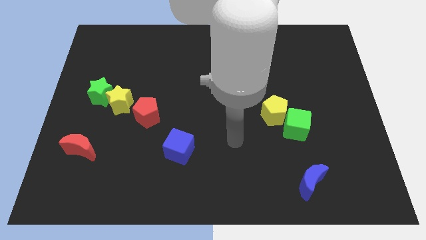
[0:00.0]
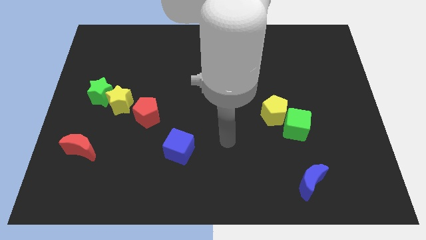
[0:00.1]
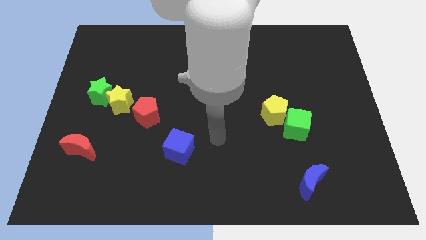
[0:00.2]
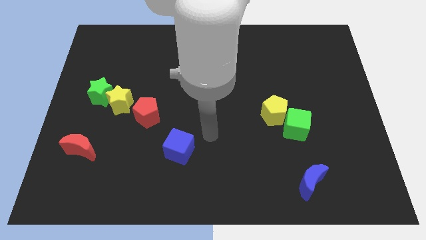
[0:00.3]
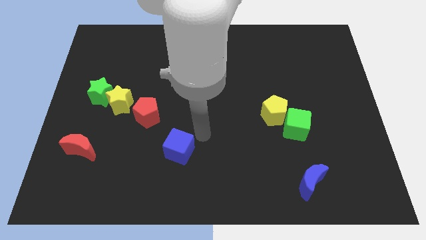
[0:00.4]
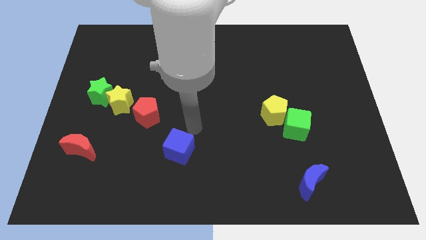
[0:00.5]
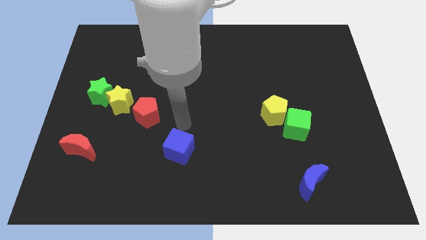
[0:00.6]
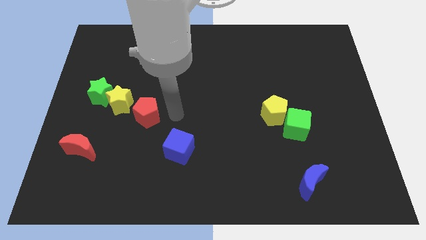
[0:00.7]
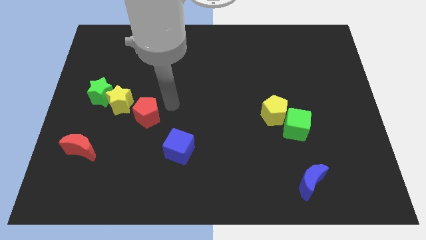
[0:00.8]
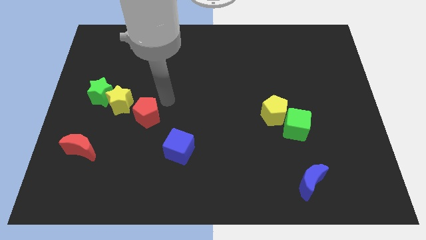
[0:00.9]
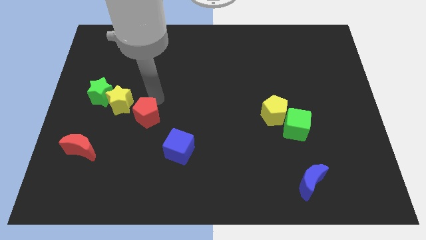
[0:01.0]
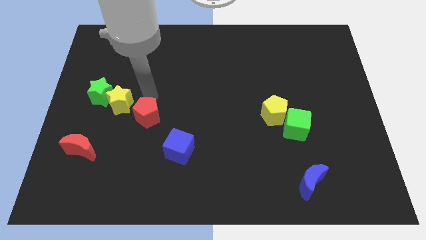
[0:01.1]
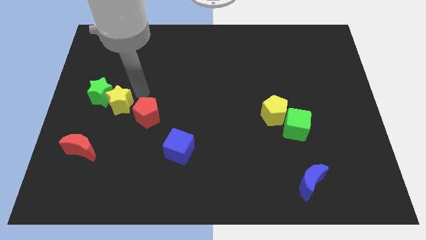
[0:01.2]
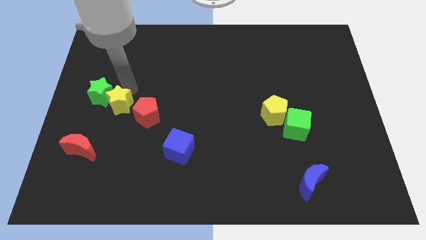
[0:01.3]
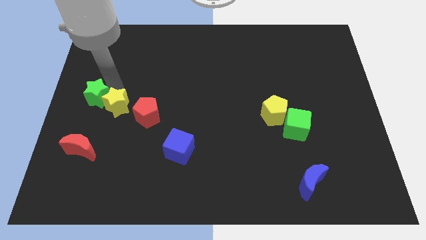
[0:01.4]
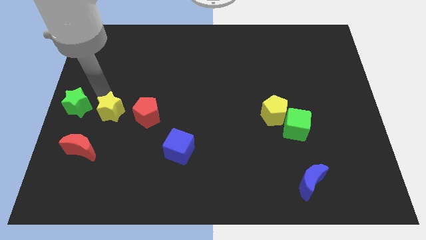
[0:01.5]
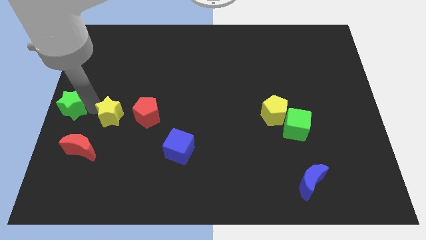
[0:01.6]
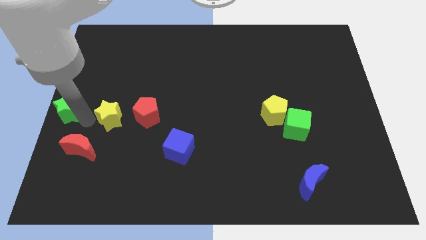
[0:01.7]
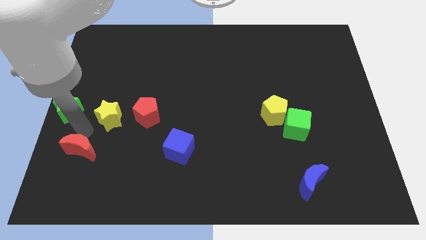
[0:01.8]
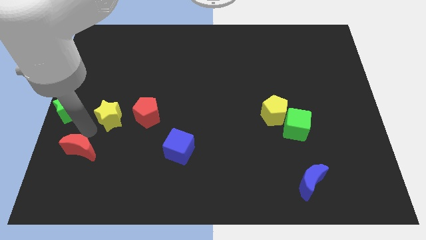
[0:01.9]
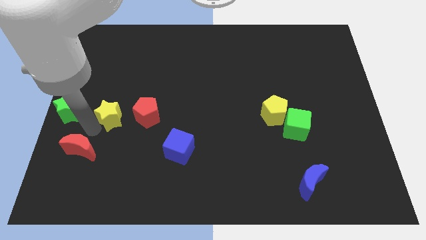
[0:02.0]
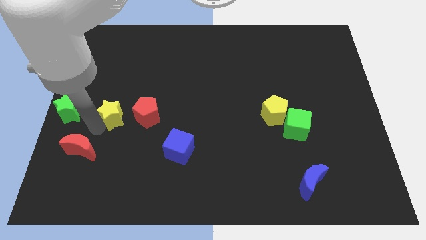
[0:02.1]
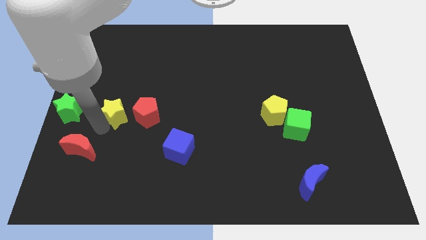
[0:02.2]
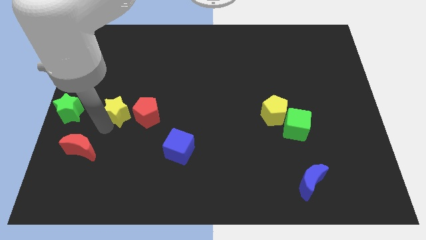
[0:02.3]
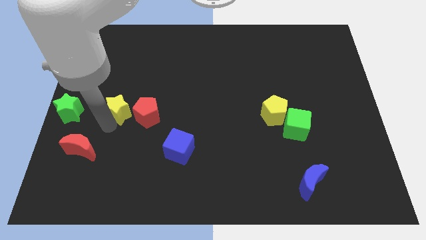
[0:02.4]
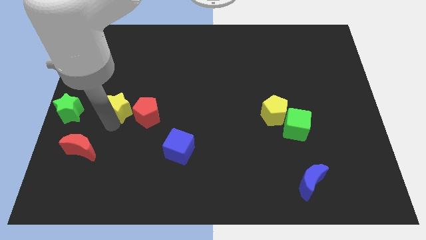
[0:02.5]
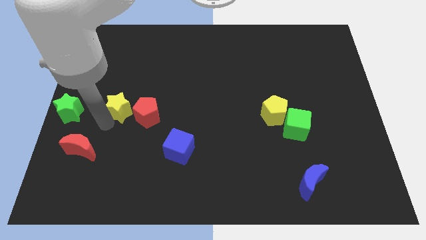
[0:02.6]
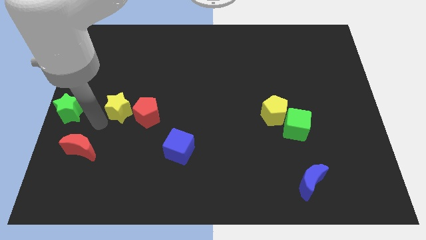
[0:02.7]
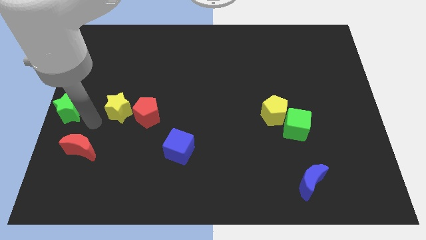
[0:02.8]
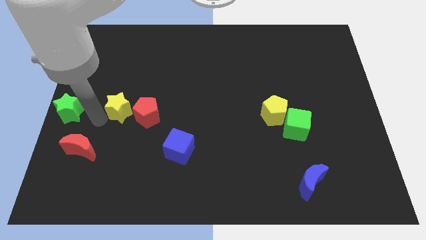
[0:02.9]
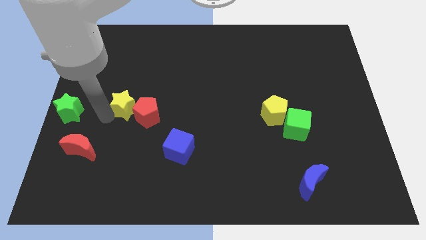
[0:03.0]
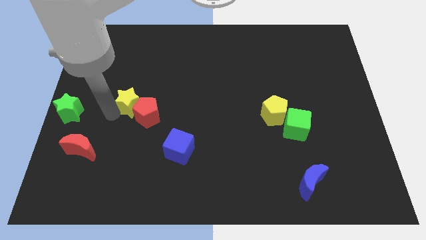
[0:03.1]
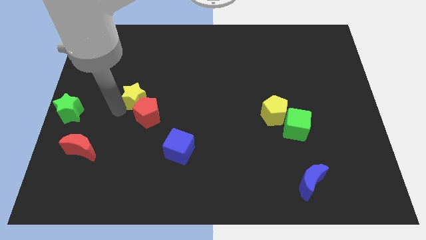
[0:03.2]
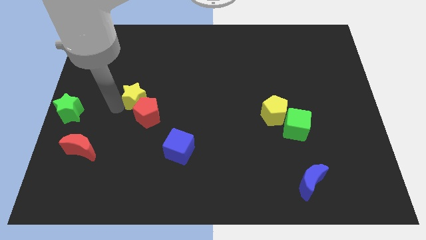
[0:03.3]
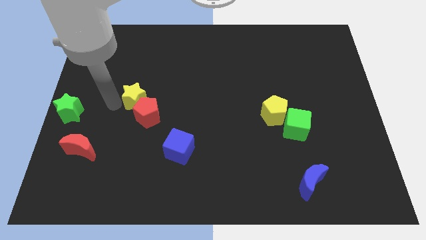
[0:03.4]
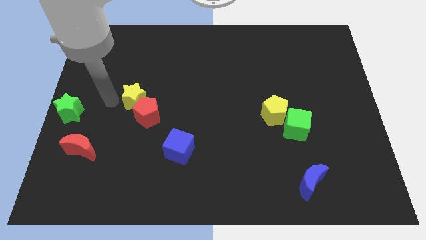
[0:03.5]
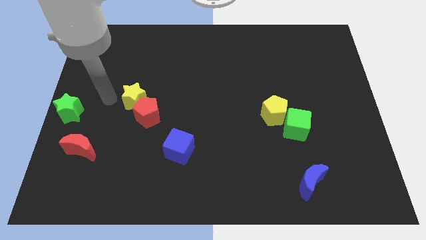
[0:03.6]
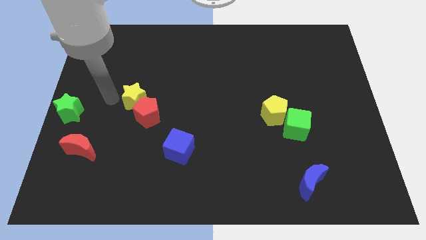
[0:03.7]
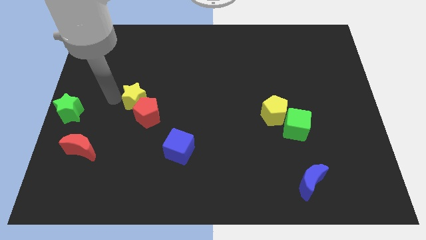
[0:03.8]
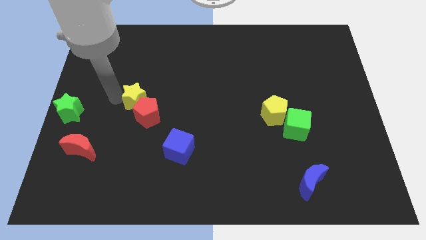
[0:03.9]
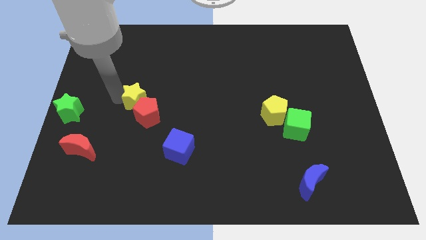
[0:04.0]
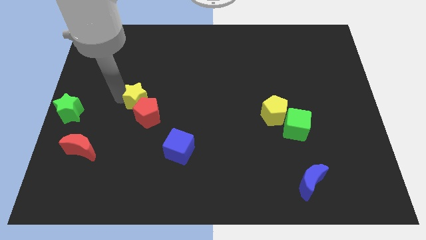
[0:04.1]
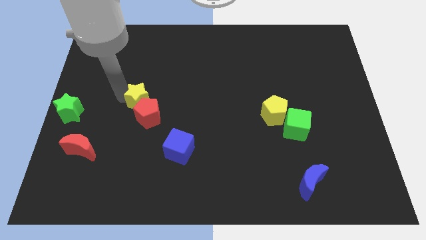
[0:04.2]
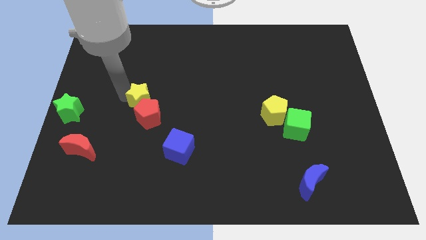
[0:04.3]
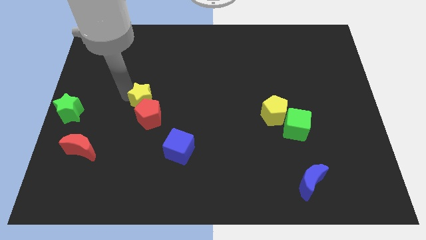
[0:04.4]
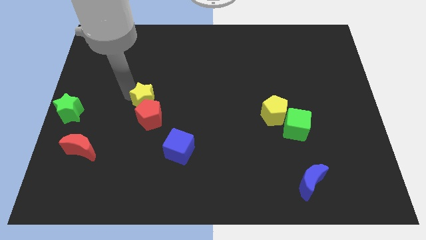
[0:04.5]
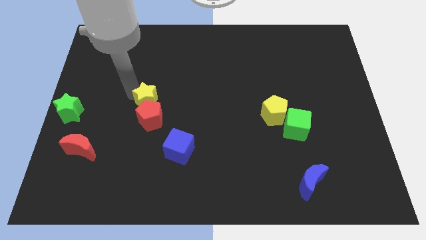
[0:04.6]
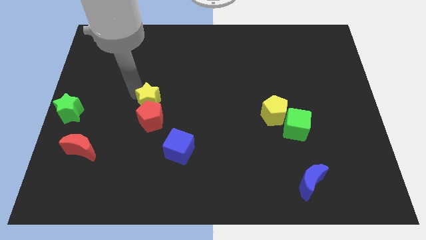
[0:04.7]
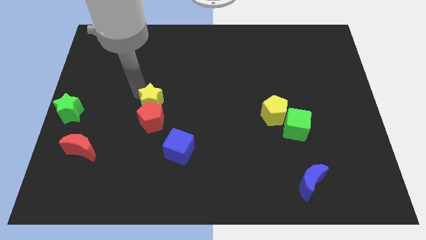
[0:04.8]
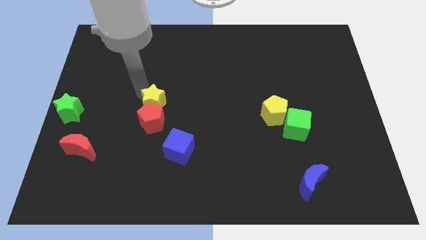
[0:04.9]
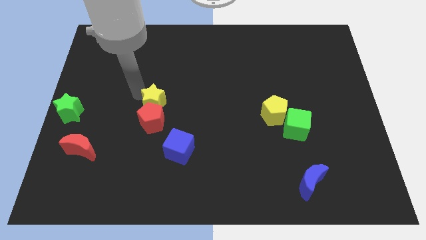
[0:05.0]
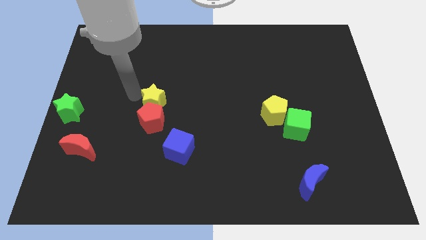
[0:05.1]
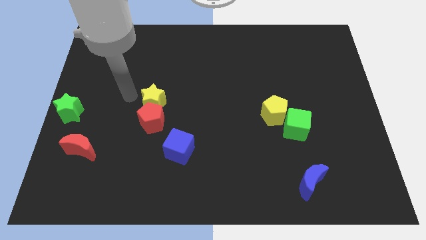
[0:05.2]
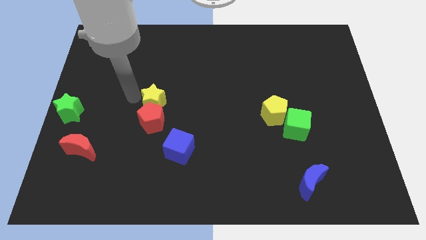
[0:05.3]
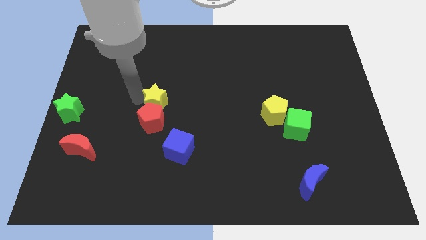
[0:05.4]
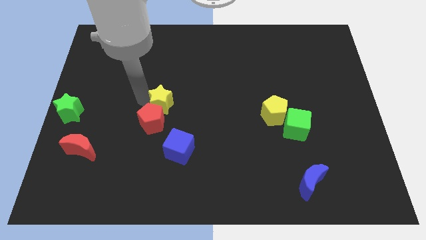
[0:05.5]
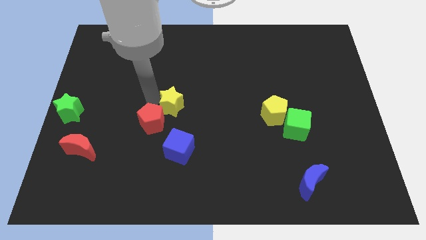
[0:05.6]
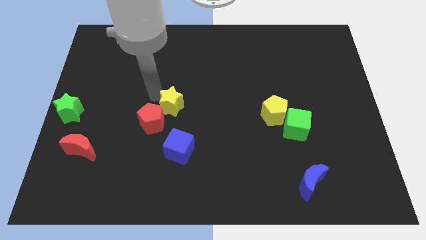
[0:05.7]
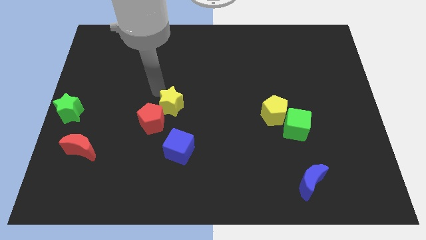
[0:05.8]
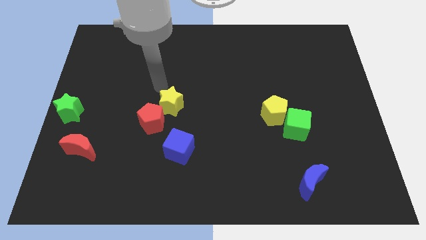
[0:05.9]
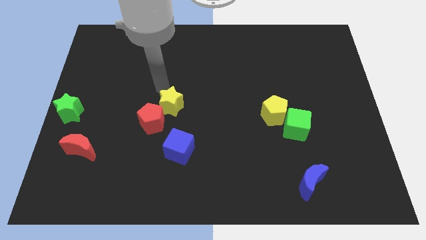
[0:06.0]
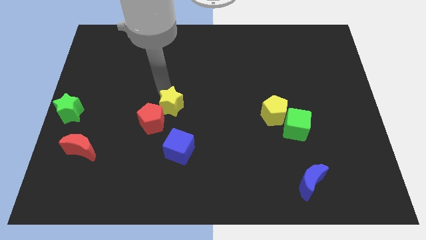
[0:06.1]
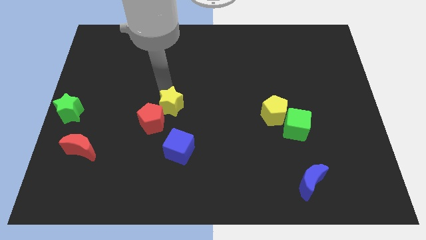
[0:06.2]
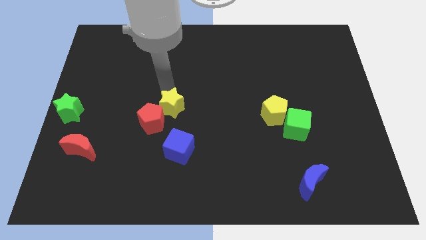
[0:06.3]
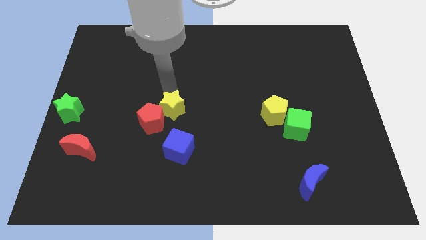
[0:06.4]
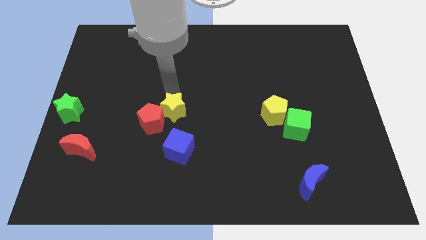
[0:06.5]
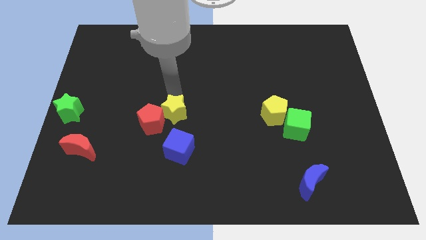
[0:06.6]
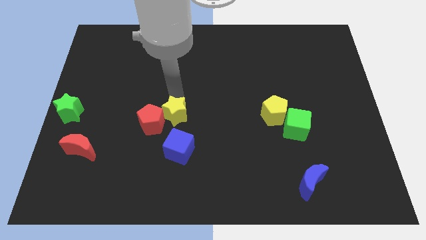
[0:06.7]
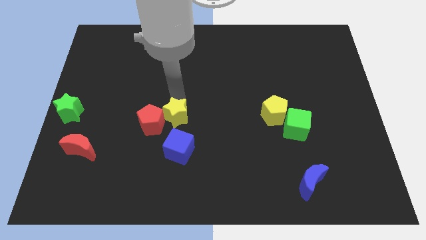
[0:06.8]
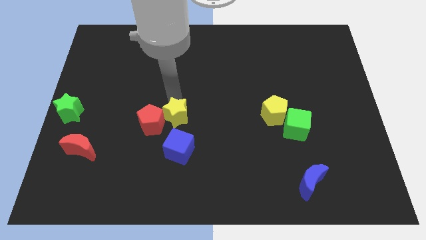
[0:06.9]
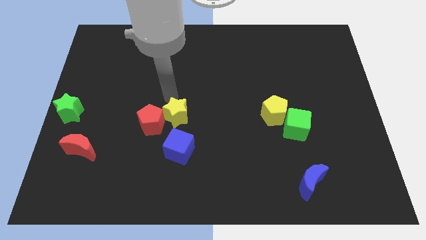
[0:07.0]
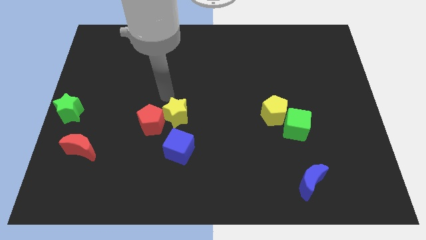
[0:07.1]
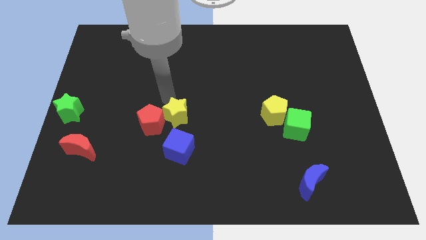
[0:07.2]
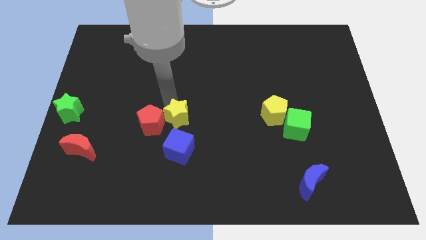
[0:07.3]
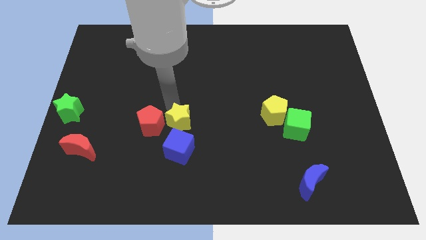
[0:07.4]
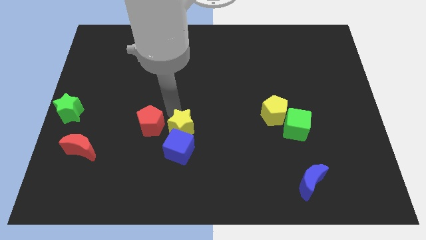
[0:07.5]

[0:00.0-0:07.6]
slide the yellow star to the top right side of the blue cube
